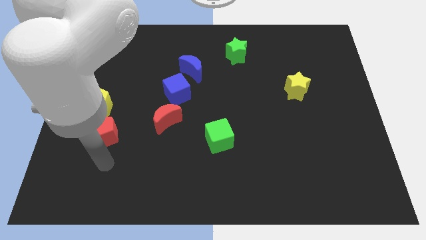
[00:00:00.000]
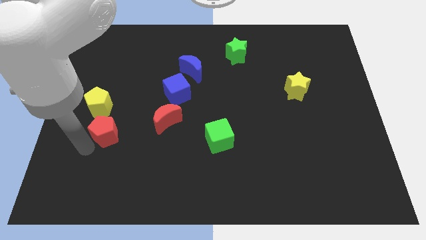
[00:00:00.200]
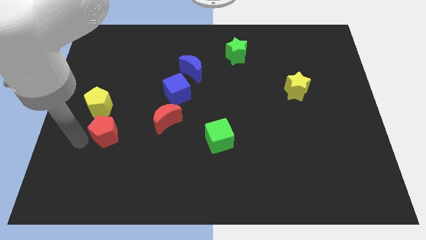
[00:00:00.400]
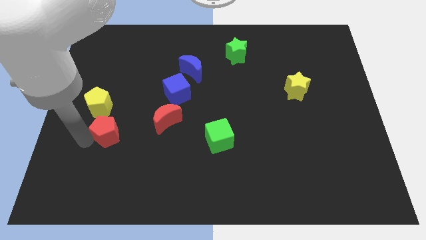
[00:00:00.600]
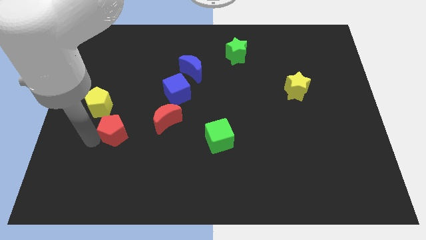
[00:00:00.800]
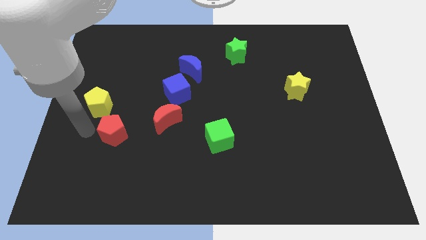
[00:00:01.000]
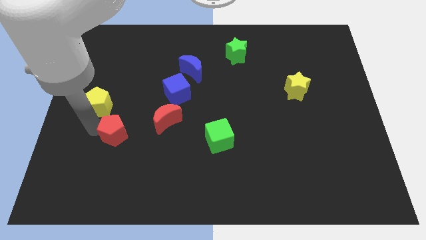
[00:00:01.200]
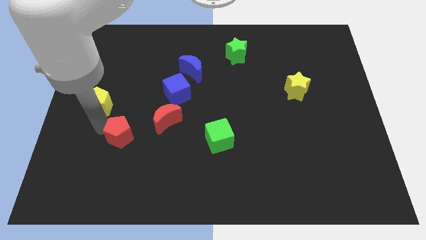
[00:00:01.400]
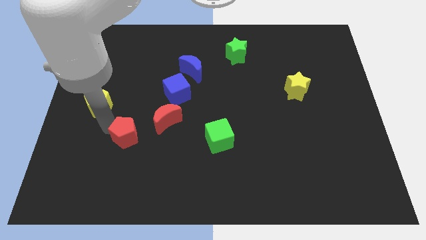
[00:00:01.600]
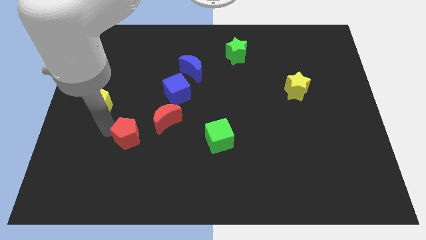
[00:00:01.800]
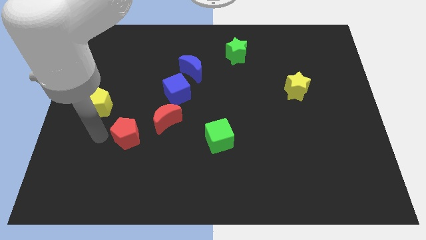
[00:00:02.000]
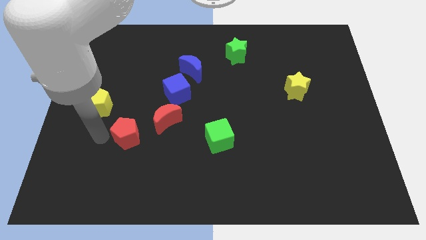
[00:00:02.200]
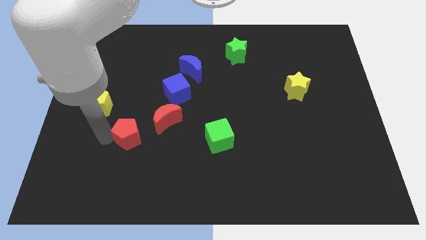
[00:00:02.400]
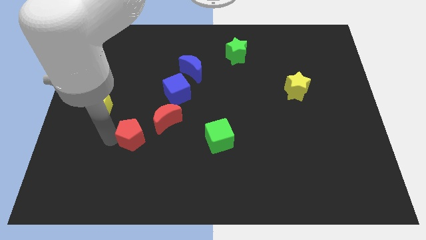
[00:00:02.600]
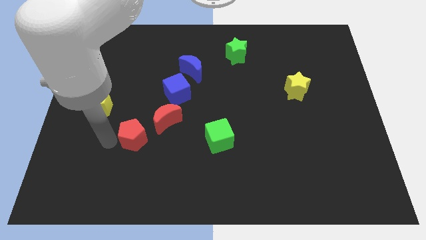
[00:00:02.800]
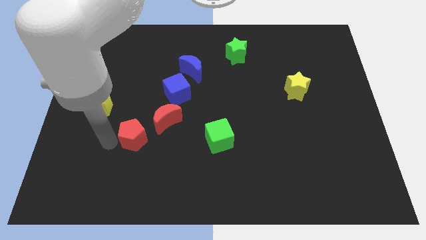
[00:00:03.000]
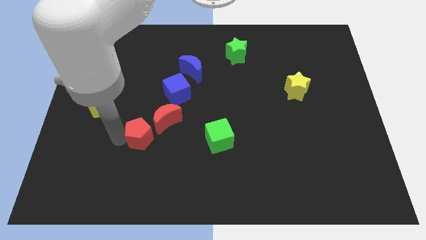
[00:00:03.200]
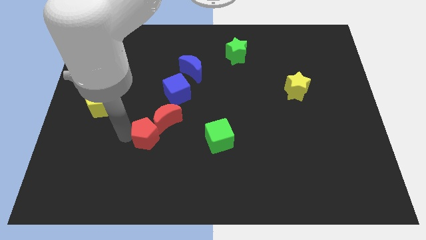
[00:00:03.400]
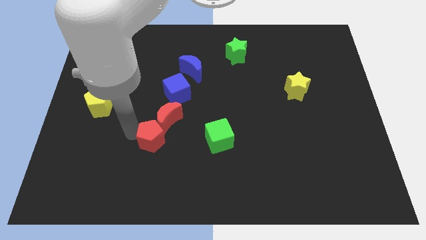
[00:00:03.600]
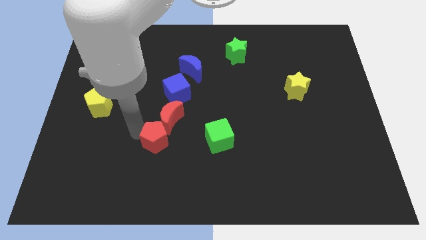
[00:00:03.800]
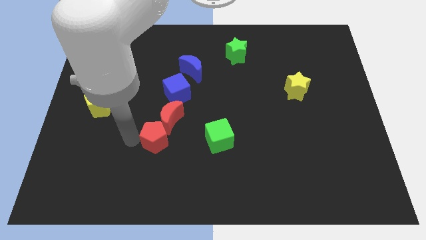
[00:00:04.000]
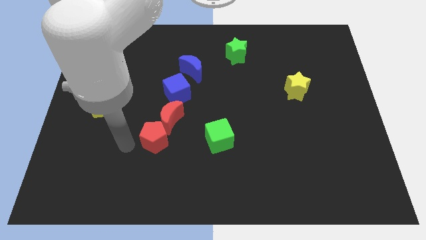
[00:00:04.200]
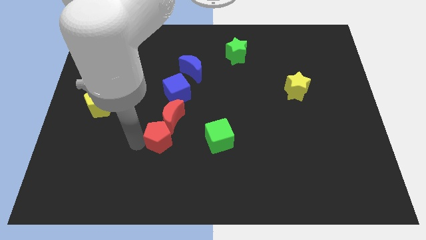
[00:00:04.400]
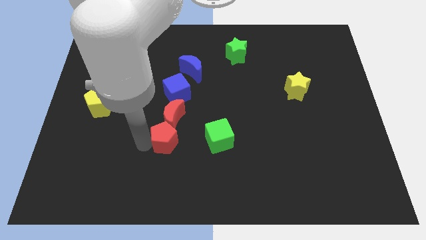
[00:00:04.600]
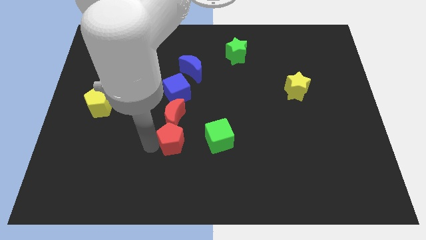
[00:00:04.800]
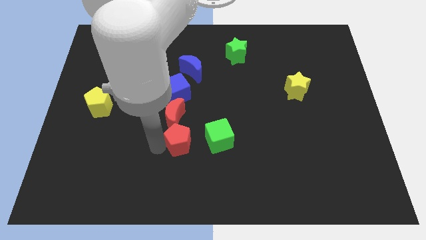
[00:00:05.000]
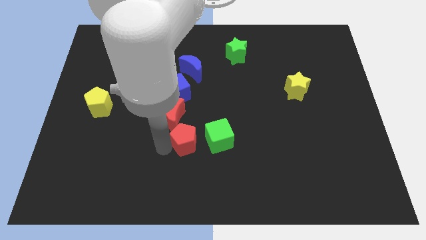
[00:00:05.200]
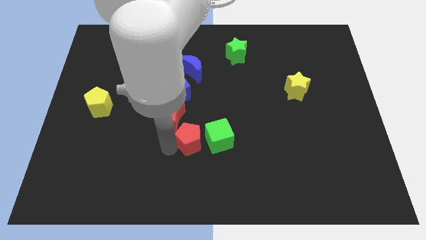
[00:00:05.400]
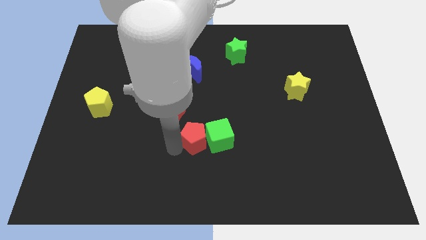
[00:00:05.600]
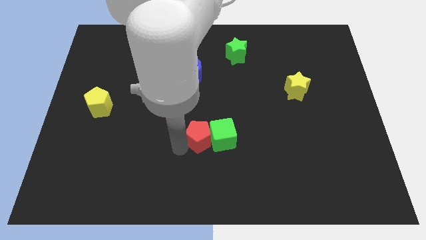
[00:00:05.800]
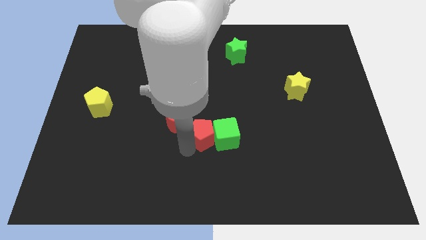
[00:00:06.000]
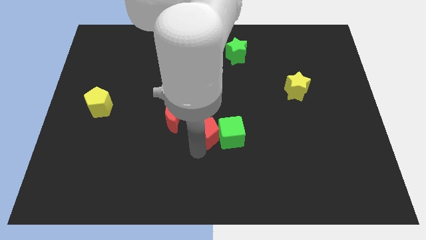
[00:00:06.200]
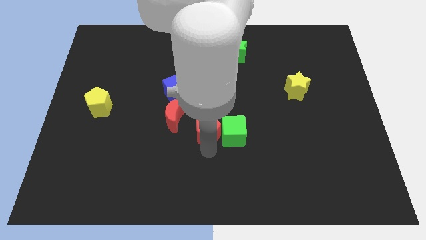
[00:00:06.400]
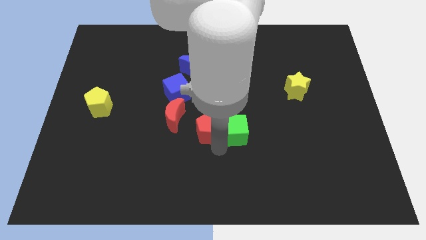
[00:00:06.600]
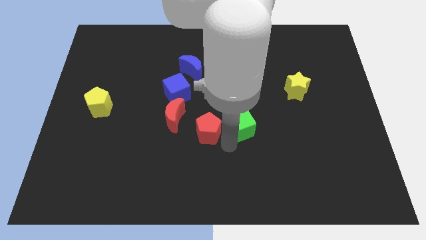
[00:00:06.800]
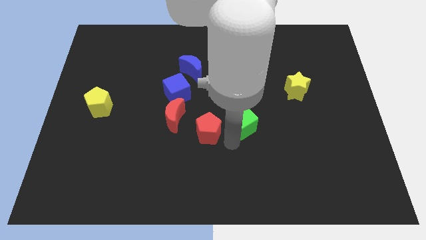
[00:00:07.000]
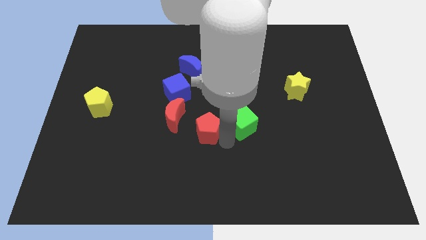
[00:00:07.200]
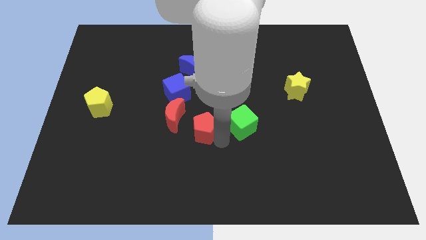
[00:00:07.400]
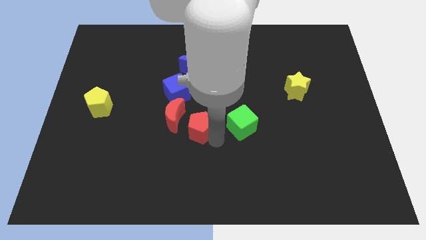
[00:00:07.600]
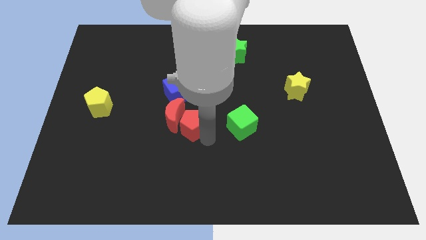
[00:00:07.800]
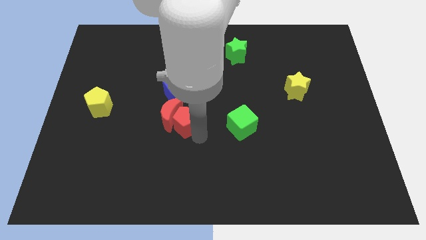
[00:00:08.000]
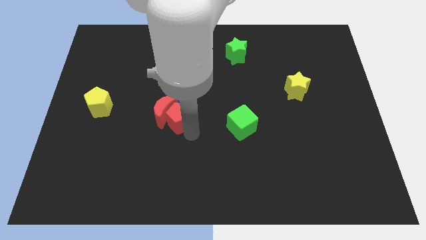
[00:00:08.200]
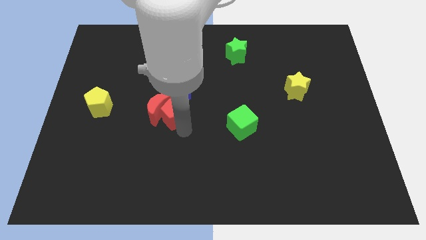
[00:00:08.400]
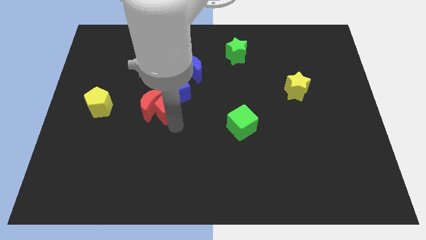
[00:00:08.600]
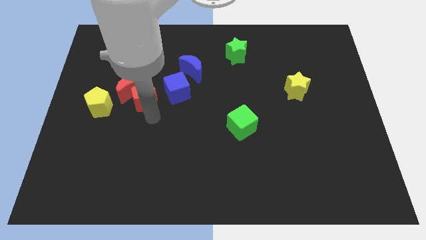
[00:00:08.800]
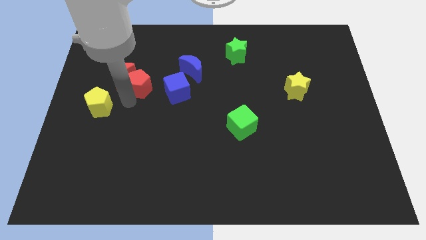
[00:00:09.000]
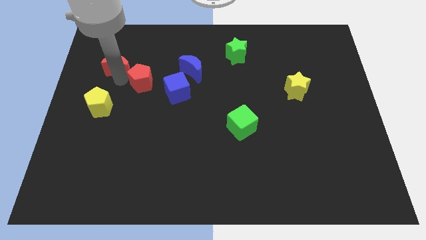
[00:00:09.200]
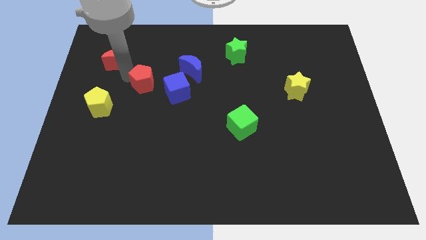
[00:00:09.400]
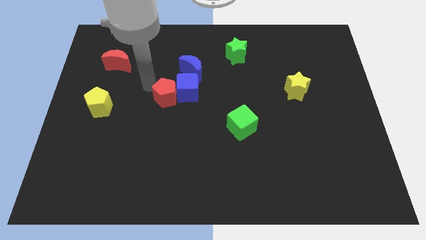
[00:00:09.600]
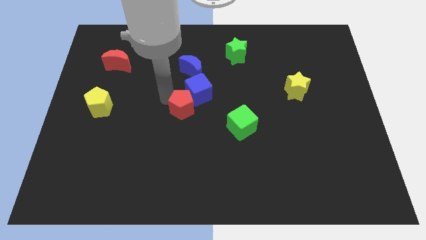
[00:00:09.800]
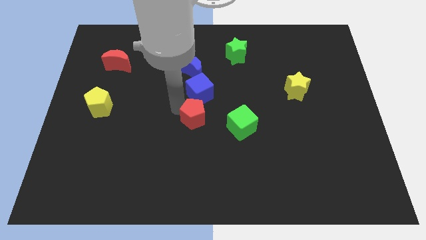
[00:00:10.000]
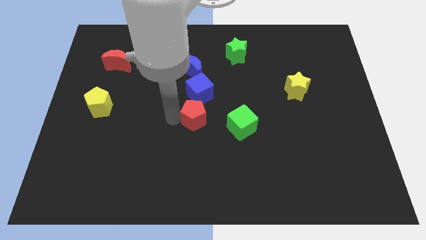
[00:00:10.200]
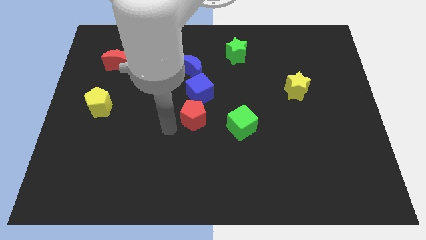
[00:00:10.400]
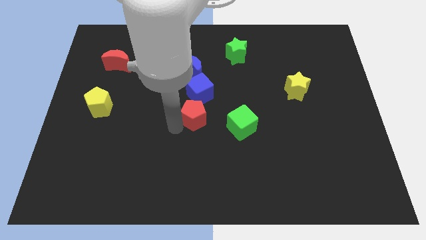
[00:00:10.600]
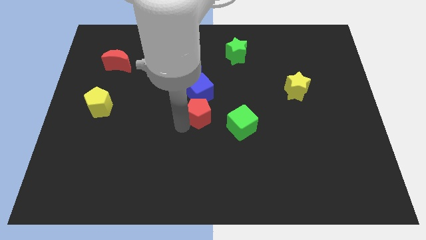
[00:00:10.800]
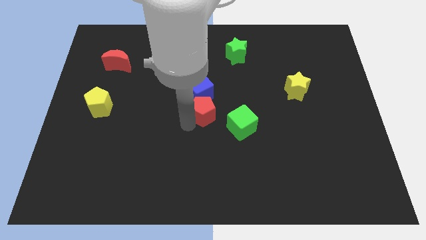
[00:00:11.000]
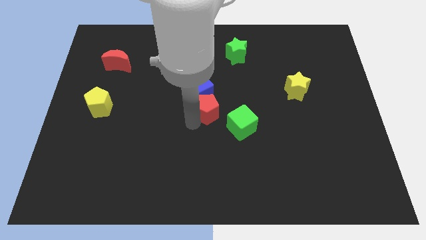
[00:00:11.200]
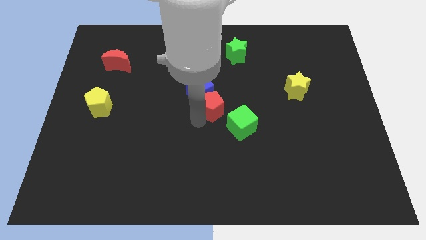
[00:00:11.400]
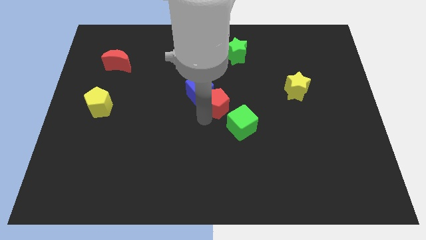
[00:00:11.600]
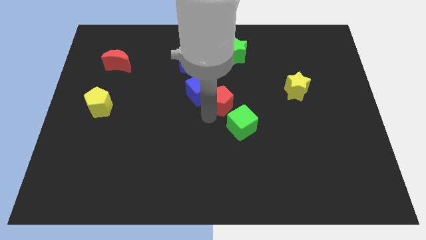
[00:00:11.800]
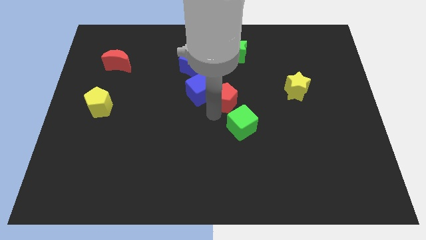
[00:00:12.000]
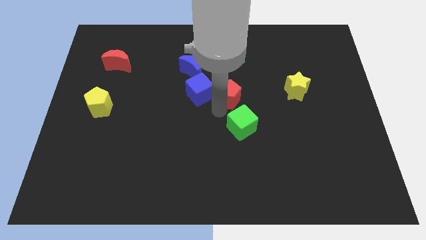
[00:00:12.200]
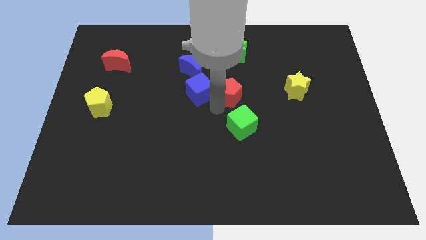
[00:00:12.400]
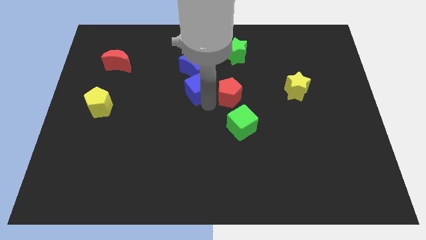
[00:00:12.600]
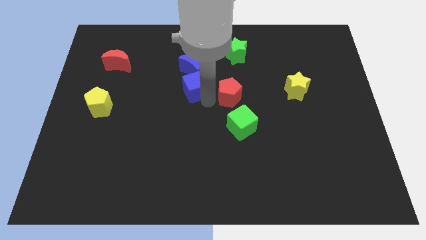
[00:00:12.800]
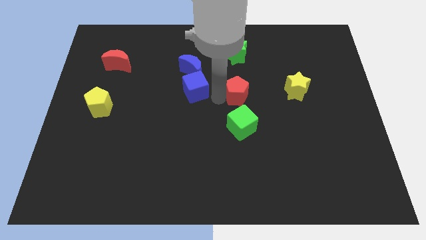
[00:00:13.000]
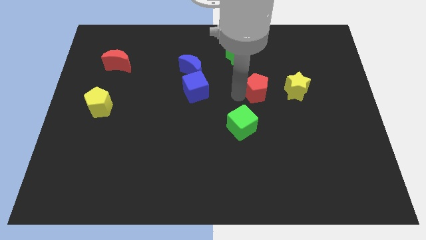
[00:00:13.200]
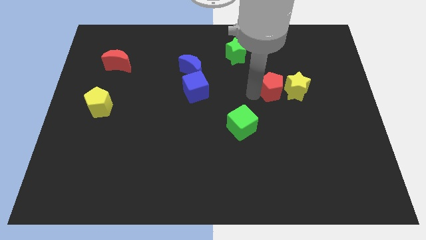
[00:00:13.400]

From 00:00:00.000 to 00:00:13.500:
push the red pentagon to the top left side of the yellow star
